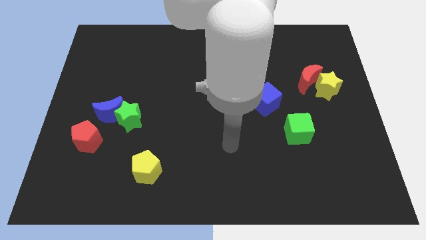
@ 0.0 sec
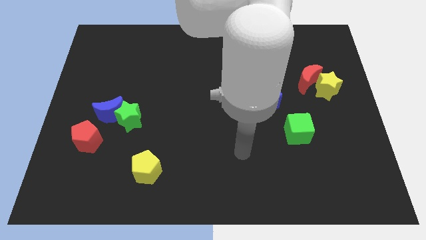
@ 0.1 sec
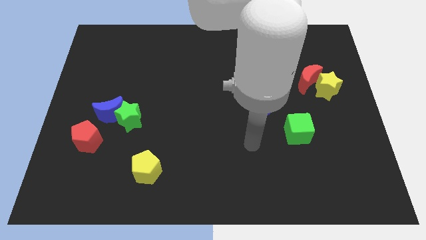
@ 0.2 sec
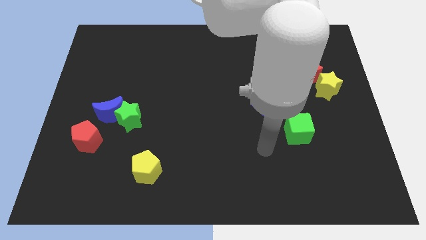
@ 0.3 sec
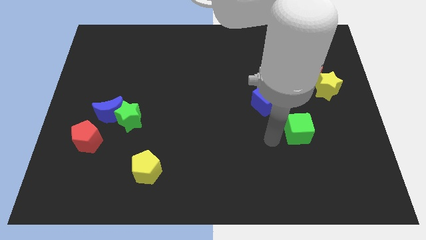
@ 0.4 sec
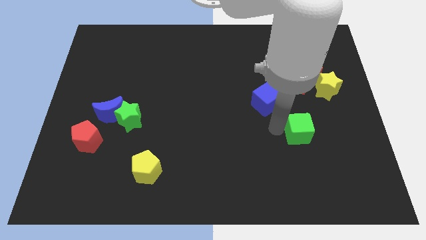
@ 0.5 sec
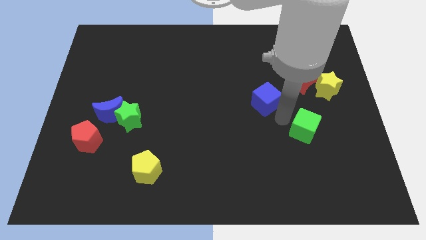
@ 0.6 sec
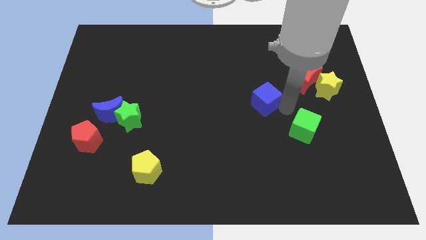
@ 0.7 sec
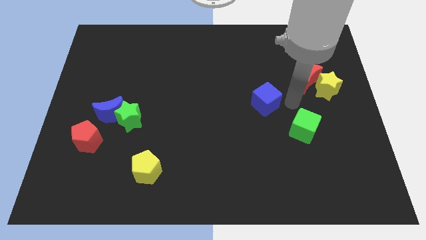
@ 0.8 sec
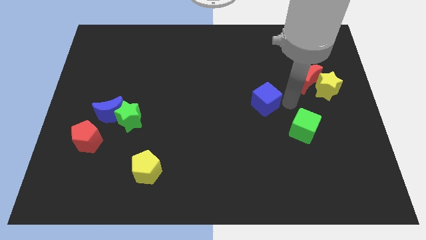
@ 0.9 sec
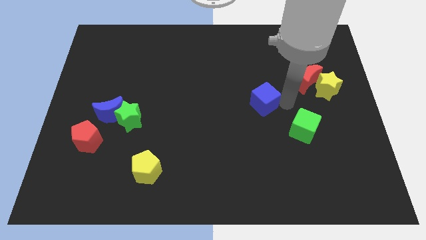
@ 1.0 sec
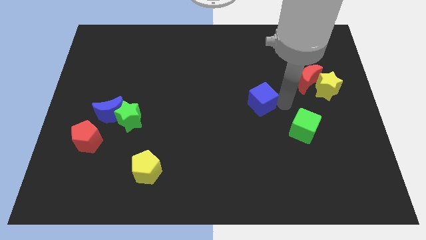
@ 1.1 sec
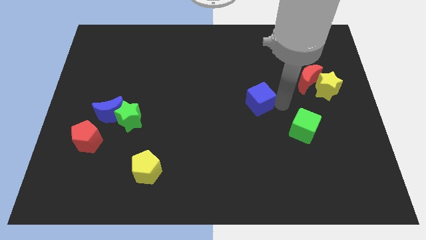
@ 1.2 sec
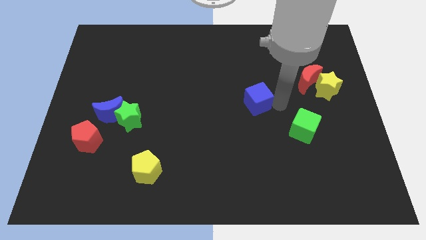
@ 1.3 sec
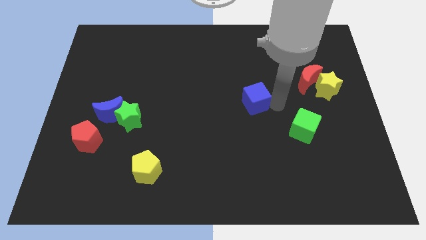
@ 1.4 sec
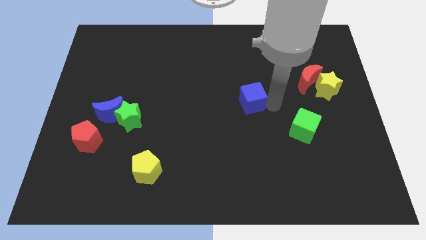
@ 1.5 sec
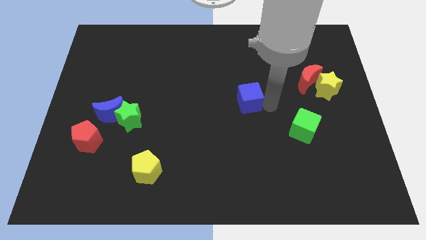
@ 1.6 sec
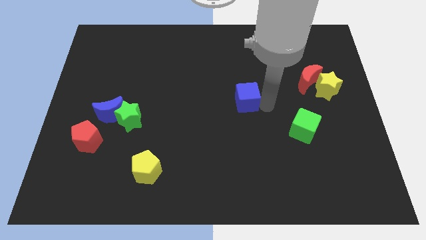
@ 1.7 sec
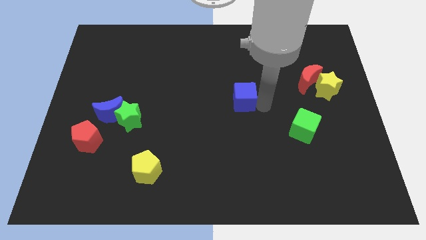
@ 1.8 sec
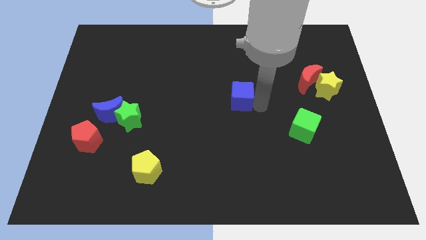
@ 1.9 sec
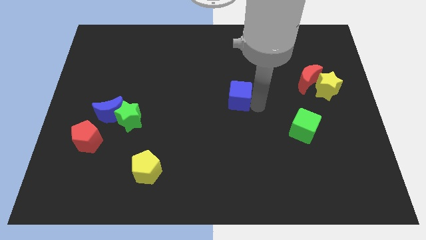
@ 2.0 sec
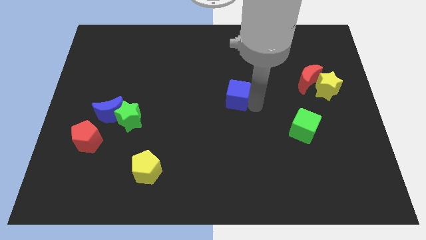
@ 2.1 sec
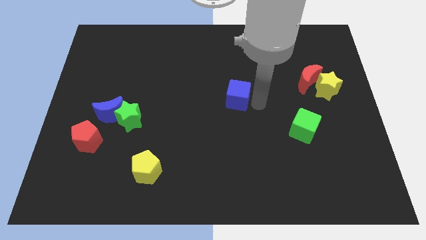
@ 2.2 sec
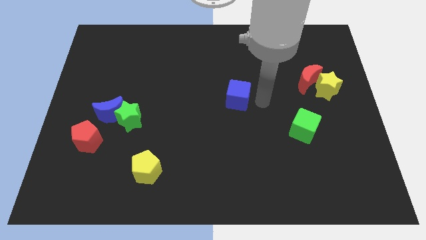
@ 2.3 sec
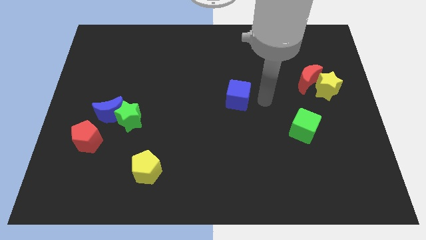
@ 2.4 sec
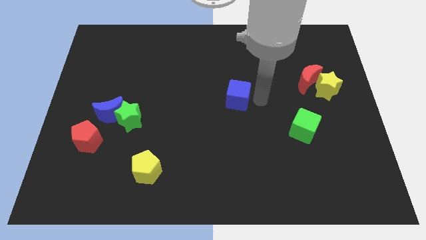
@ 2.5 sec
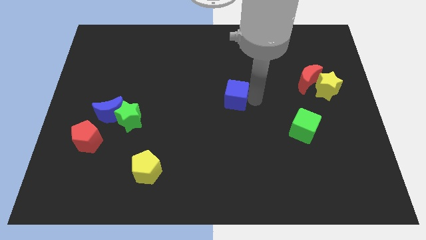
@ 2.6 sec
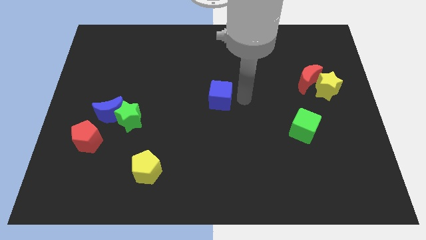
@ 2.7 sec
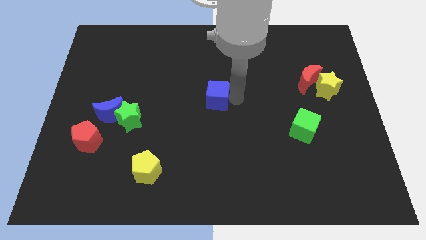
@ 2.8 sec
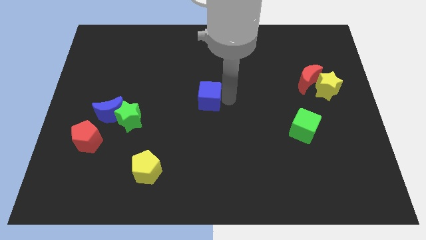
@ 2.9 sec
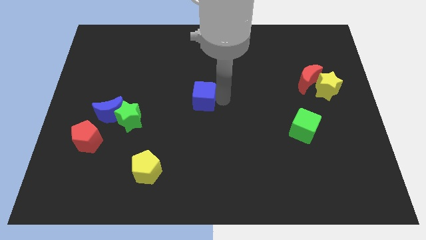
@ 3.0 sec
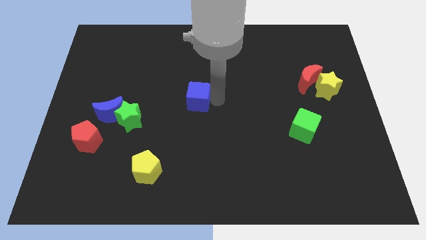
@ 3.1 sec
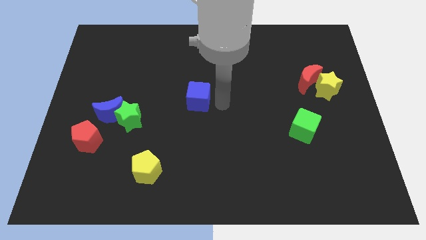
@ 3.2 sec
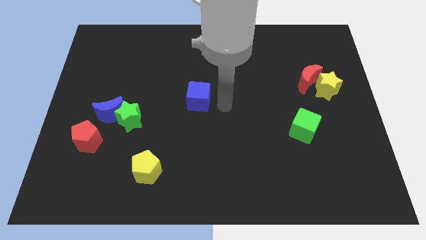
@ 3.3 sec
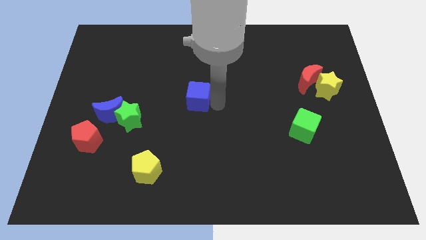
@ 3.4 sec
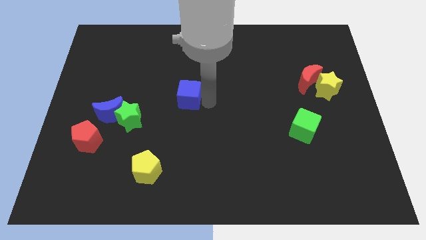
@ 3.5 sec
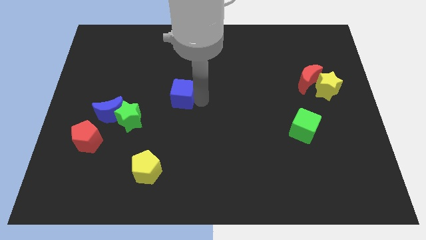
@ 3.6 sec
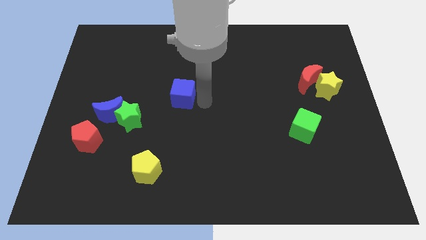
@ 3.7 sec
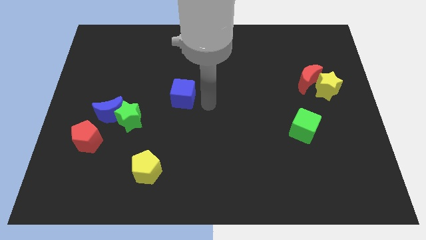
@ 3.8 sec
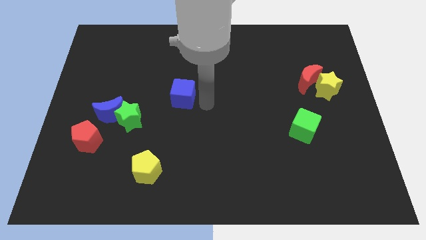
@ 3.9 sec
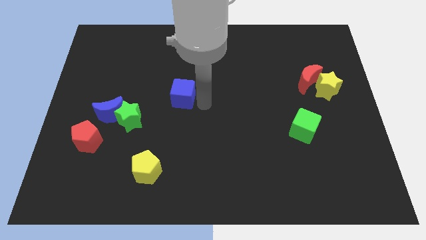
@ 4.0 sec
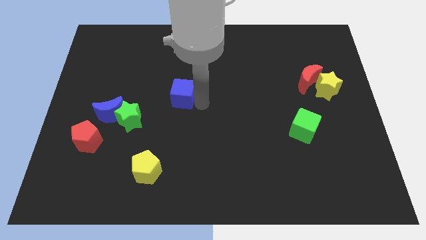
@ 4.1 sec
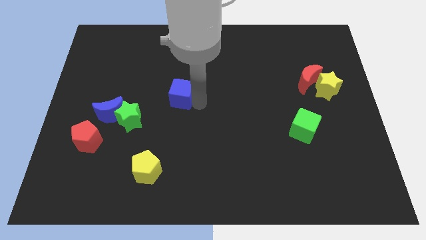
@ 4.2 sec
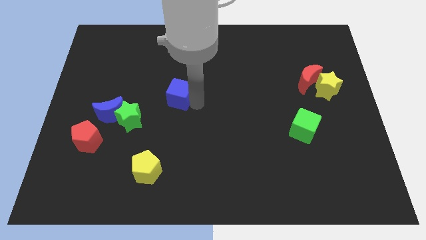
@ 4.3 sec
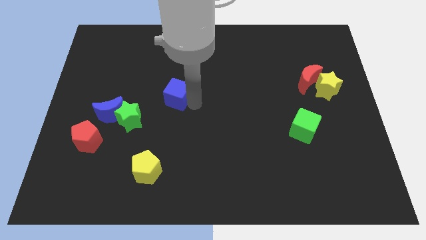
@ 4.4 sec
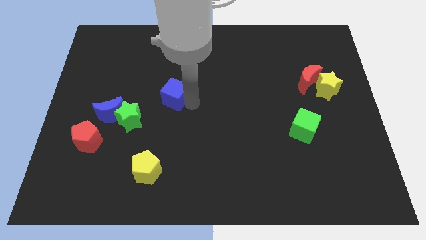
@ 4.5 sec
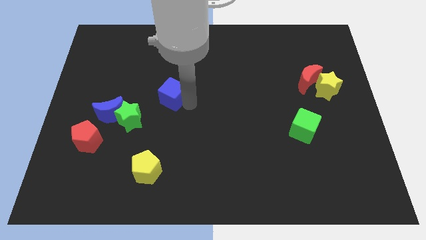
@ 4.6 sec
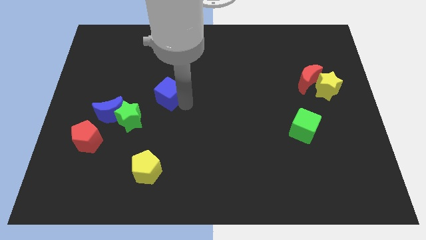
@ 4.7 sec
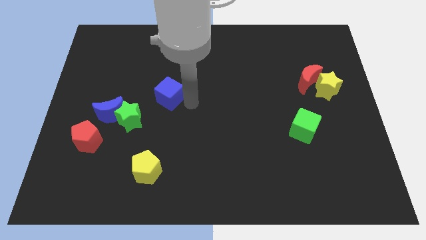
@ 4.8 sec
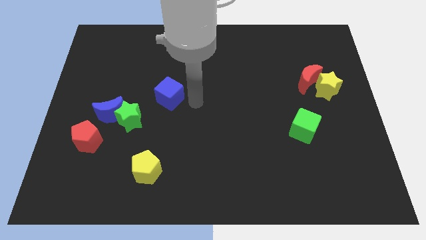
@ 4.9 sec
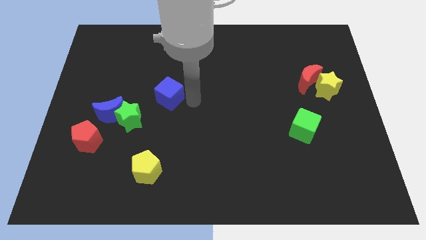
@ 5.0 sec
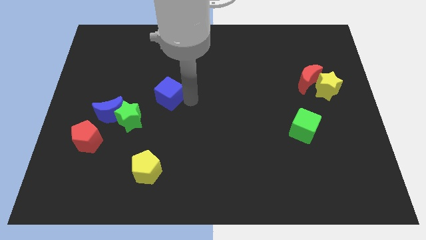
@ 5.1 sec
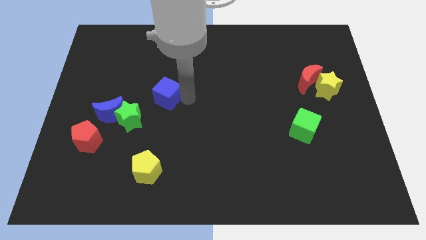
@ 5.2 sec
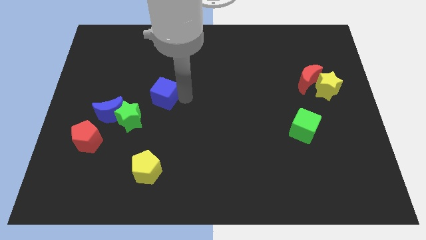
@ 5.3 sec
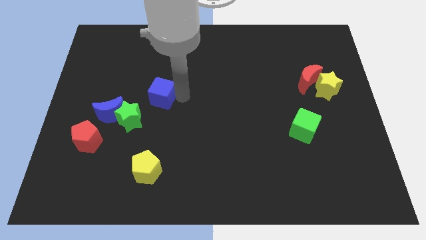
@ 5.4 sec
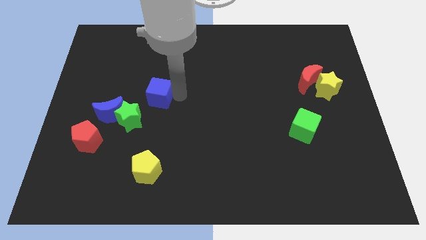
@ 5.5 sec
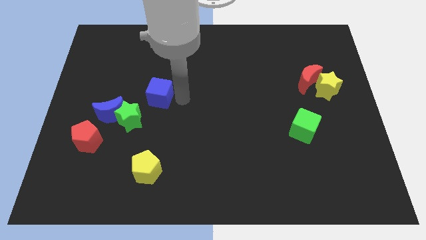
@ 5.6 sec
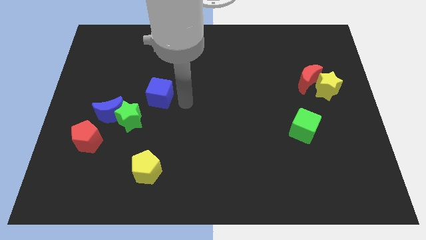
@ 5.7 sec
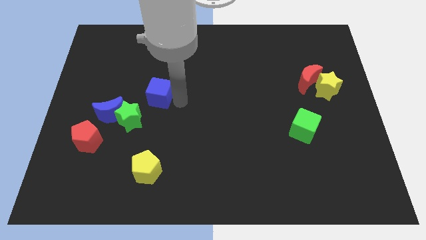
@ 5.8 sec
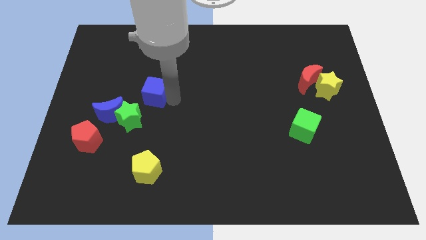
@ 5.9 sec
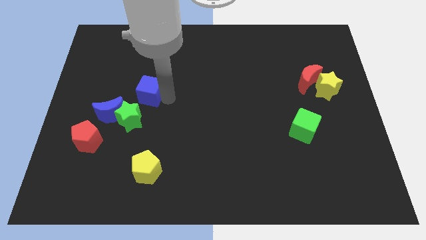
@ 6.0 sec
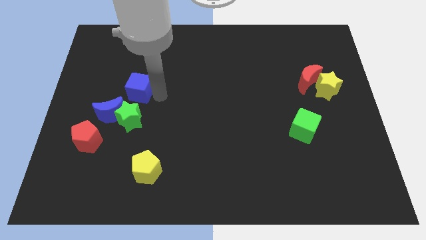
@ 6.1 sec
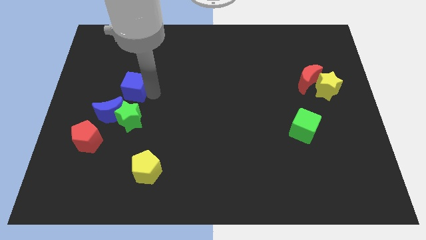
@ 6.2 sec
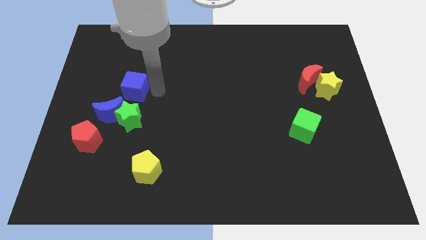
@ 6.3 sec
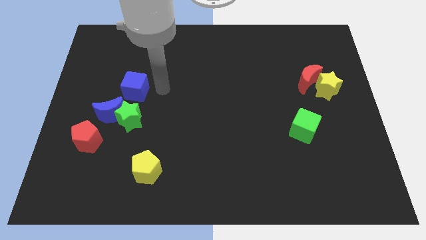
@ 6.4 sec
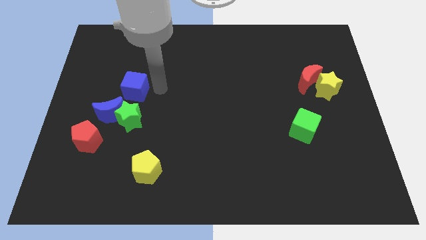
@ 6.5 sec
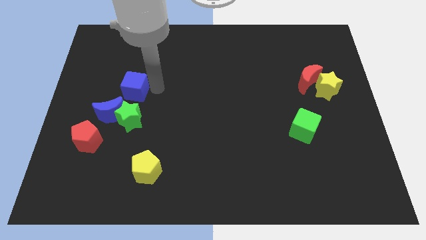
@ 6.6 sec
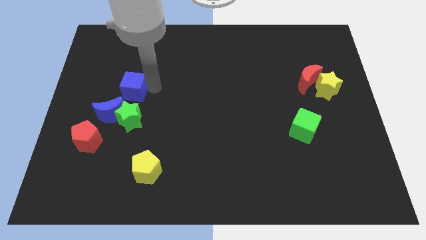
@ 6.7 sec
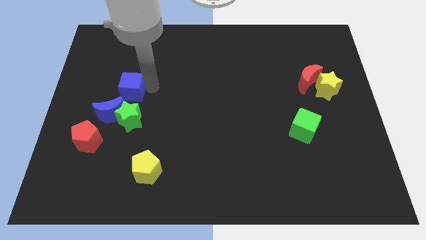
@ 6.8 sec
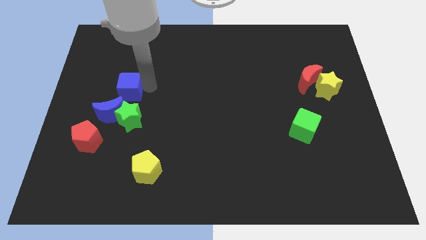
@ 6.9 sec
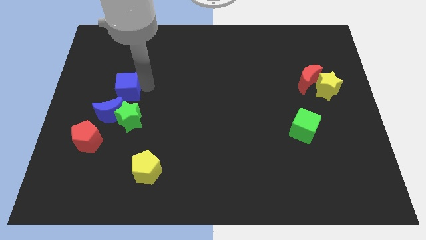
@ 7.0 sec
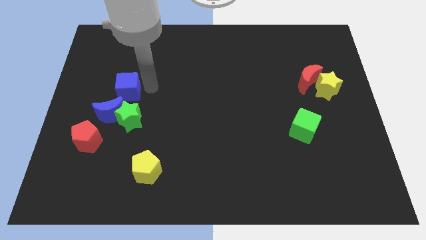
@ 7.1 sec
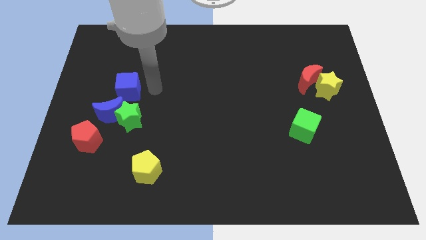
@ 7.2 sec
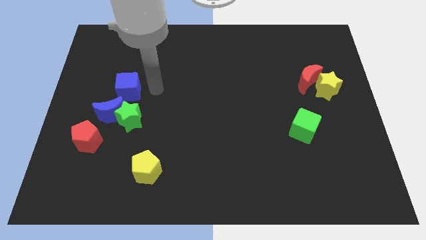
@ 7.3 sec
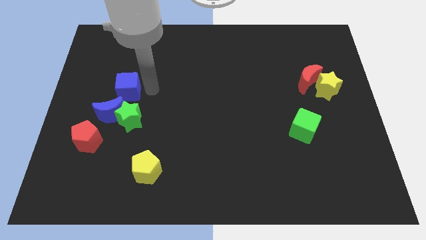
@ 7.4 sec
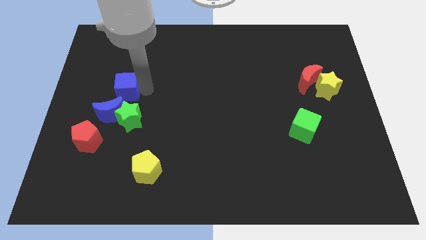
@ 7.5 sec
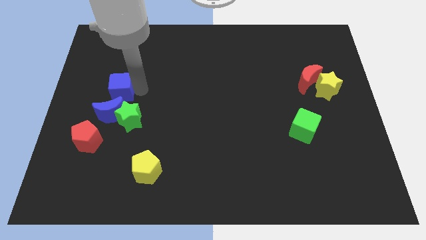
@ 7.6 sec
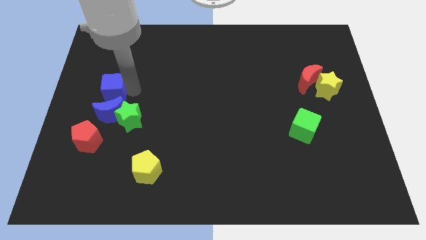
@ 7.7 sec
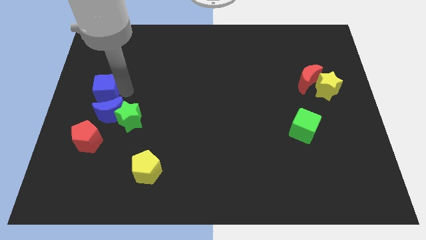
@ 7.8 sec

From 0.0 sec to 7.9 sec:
push the blue cube to the left side of the board
